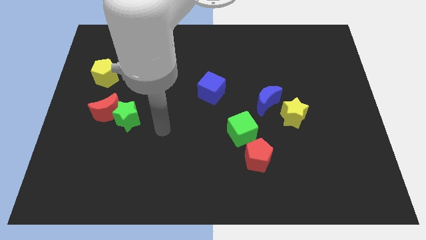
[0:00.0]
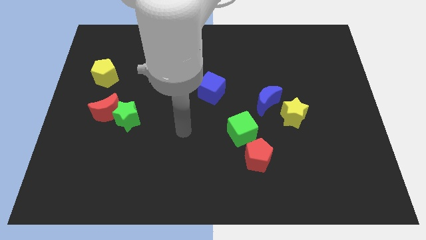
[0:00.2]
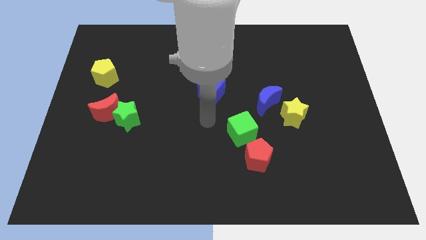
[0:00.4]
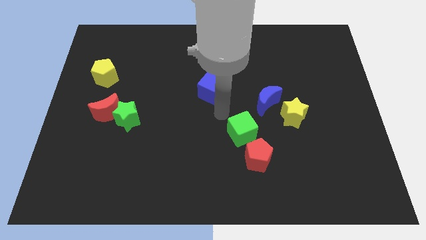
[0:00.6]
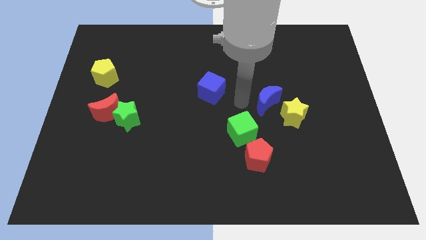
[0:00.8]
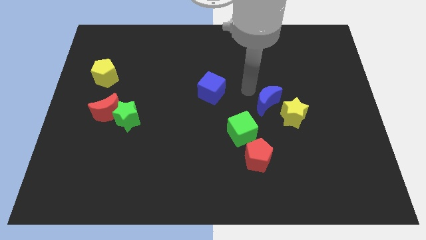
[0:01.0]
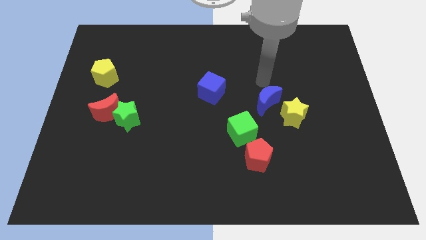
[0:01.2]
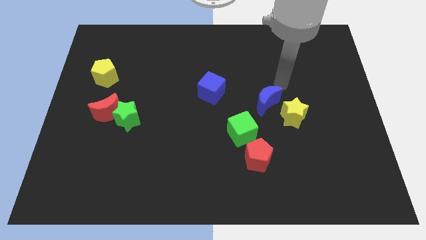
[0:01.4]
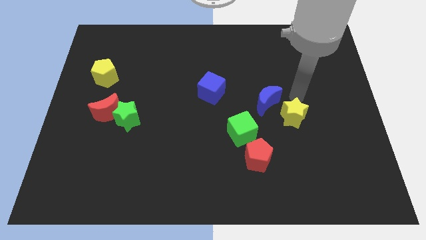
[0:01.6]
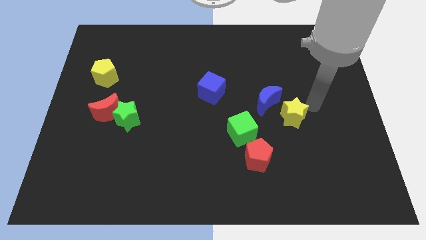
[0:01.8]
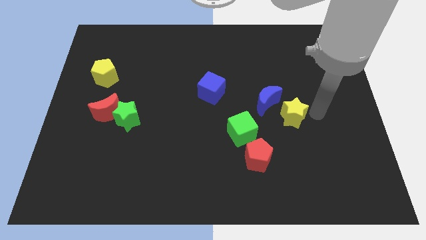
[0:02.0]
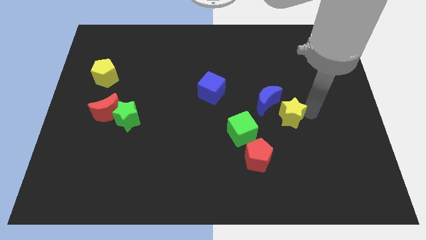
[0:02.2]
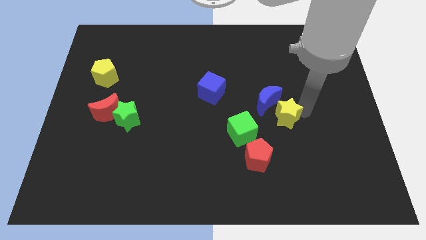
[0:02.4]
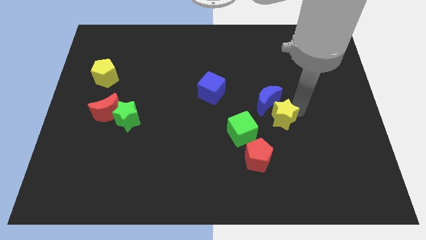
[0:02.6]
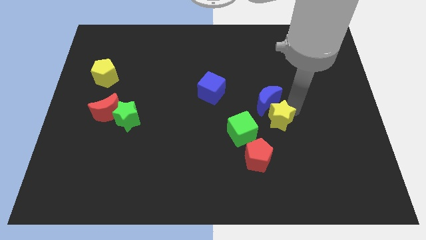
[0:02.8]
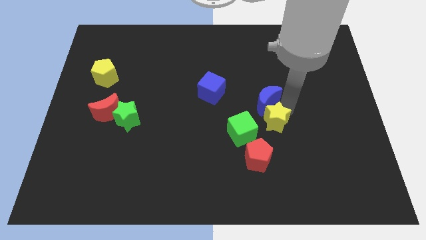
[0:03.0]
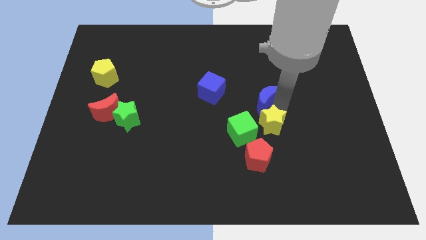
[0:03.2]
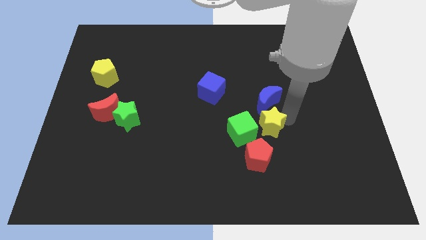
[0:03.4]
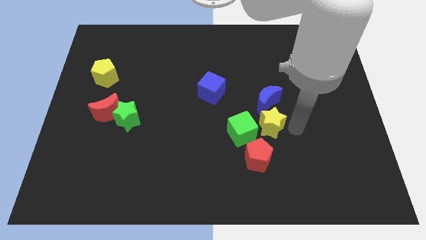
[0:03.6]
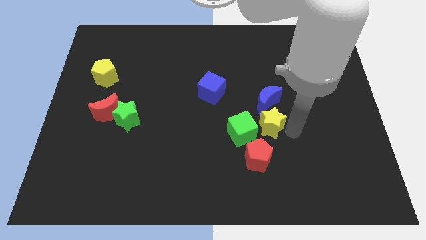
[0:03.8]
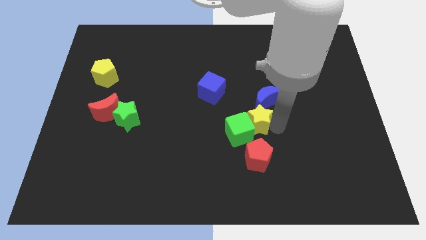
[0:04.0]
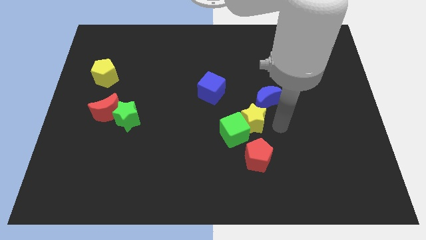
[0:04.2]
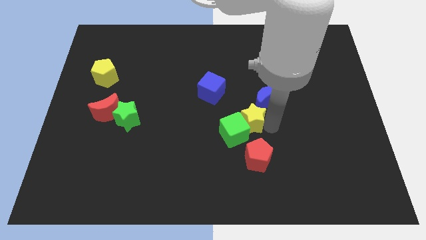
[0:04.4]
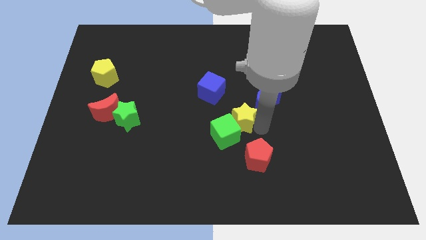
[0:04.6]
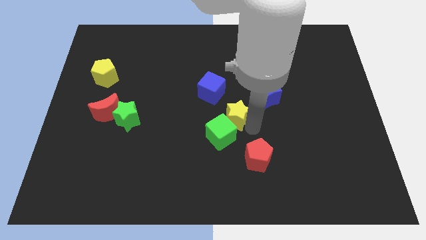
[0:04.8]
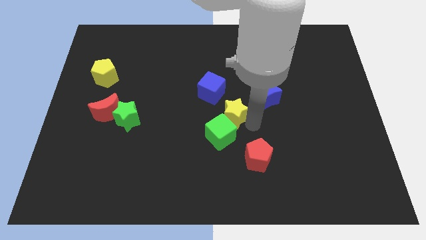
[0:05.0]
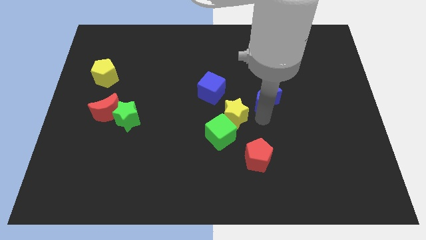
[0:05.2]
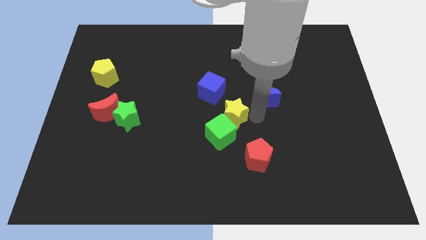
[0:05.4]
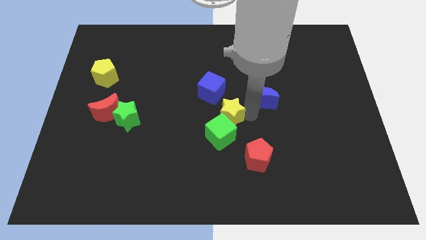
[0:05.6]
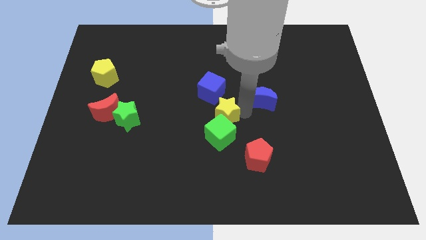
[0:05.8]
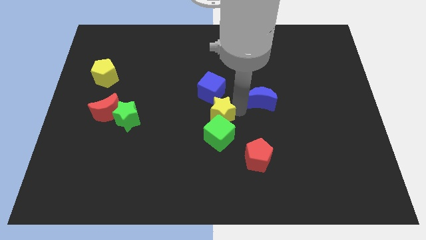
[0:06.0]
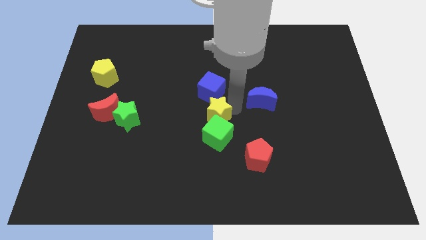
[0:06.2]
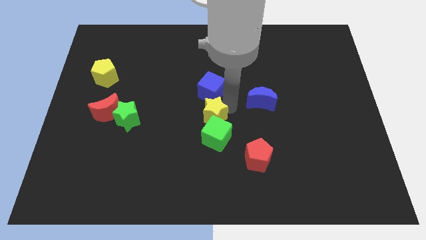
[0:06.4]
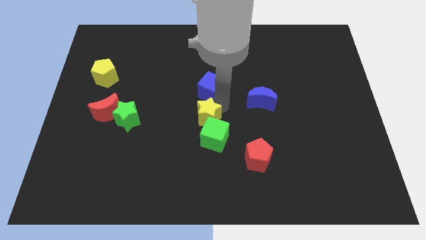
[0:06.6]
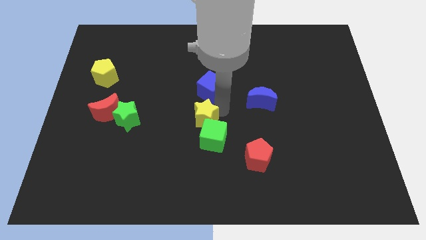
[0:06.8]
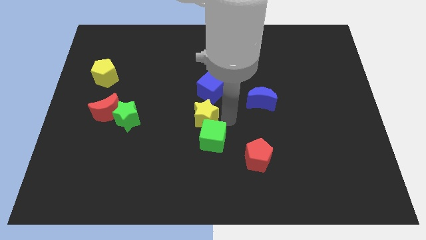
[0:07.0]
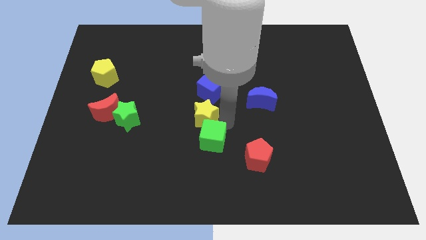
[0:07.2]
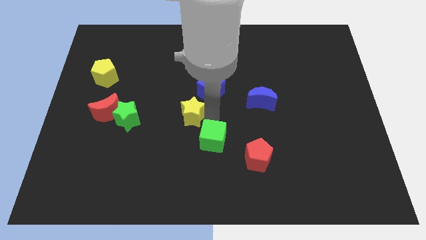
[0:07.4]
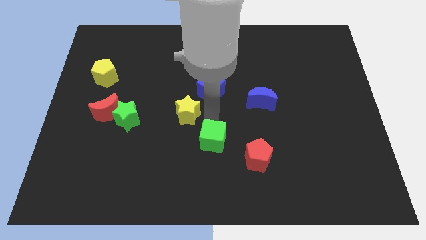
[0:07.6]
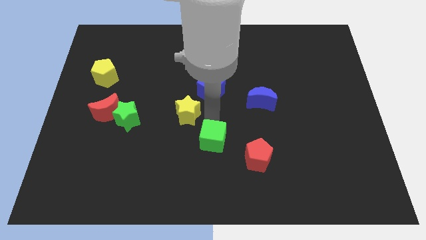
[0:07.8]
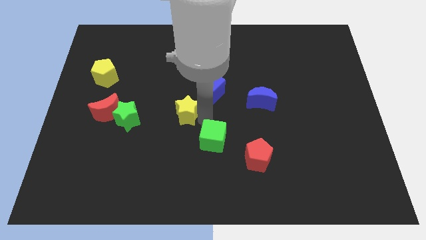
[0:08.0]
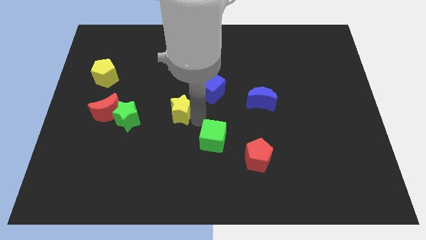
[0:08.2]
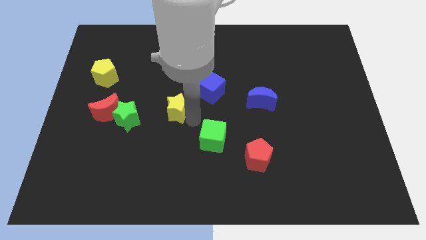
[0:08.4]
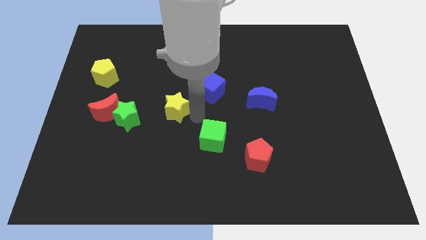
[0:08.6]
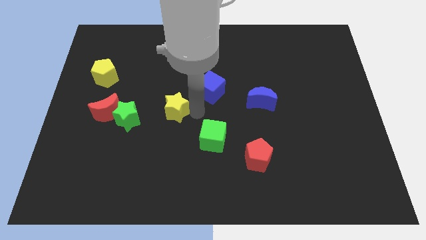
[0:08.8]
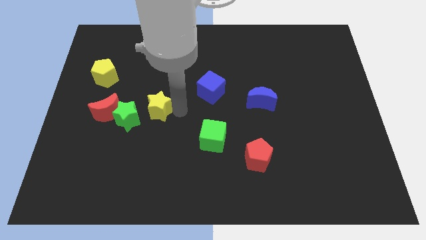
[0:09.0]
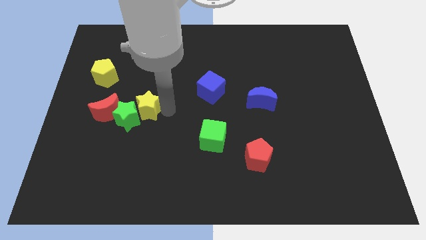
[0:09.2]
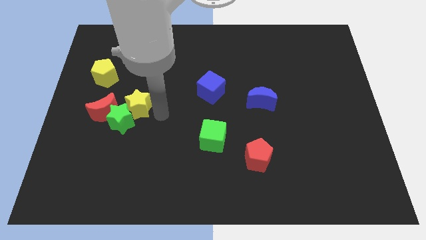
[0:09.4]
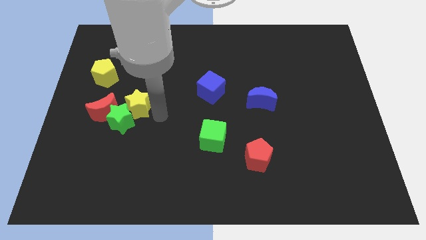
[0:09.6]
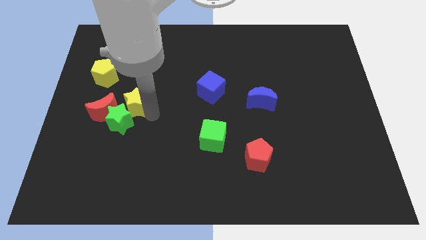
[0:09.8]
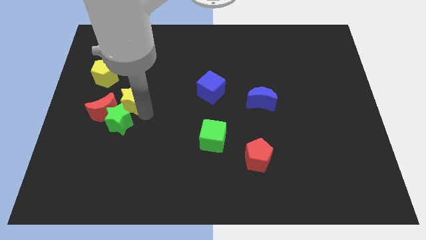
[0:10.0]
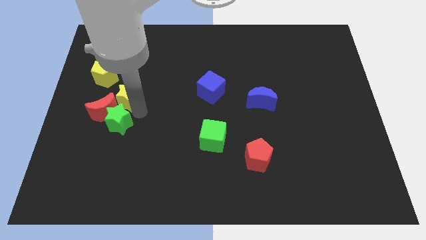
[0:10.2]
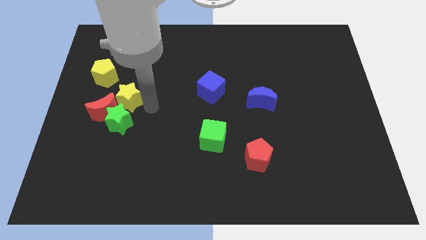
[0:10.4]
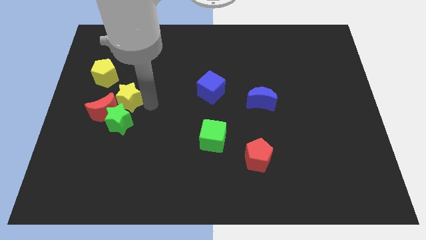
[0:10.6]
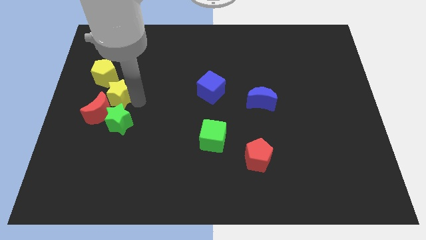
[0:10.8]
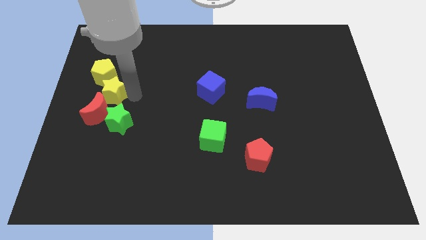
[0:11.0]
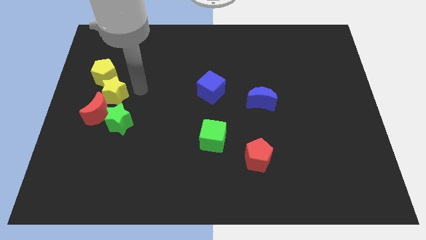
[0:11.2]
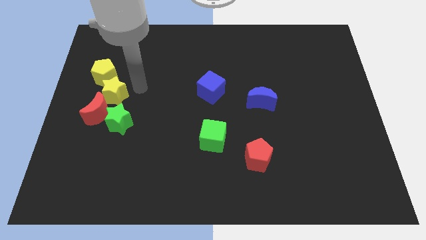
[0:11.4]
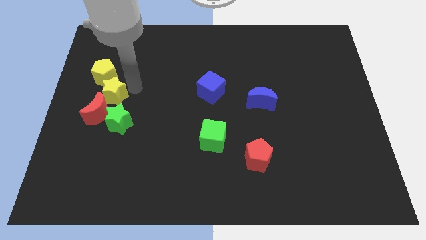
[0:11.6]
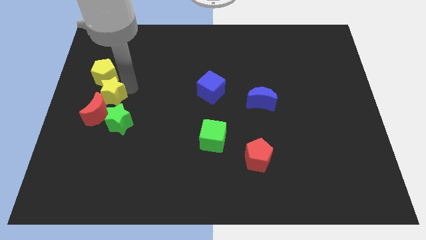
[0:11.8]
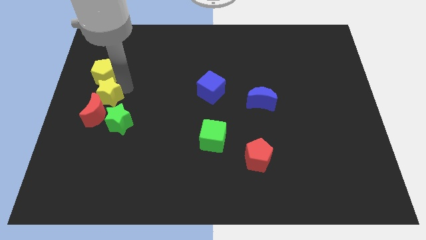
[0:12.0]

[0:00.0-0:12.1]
put the yellow star to the left side
